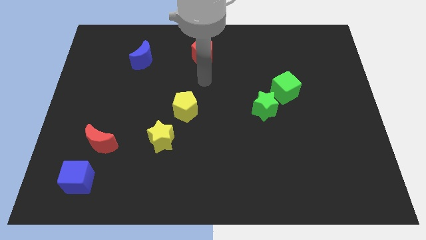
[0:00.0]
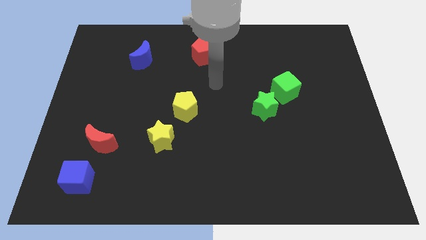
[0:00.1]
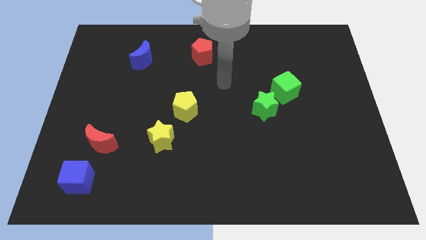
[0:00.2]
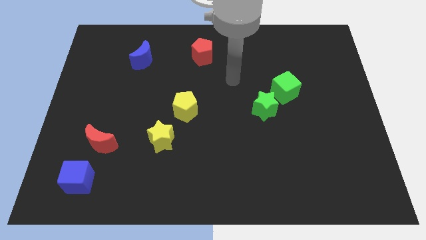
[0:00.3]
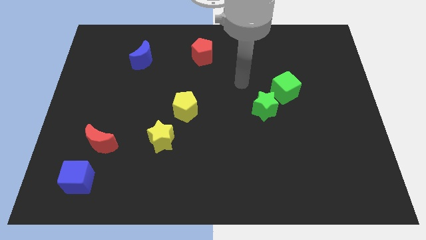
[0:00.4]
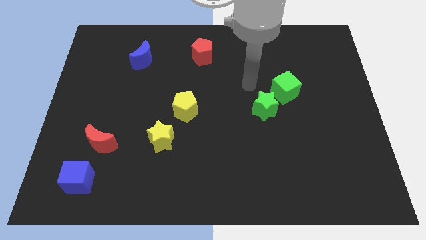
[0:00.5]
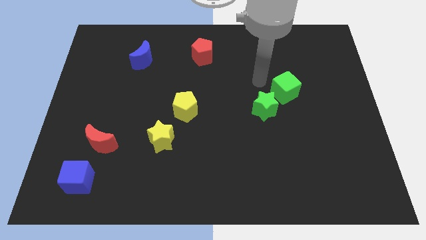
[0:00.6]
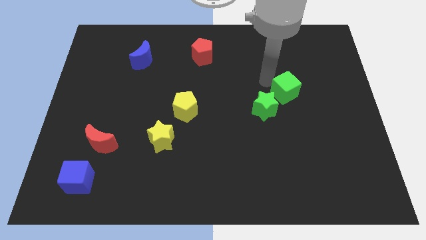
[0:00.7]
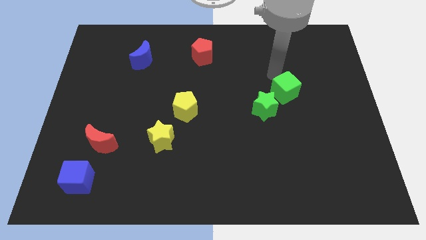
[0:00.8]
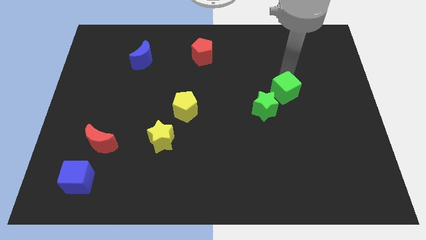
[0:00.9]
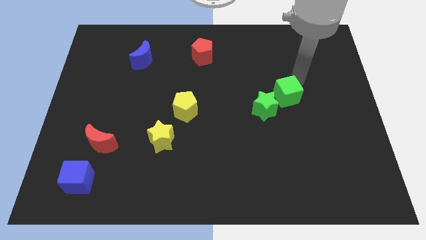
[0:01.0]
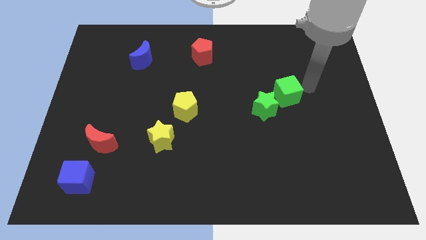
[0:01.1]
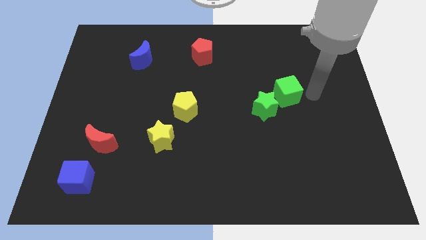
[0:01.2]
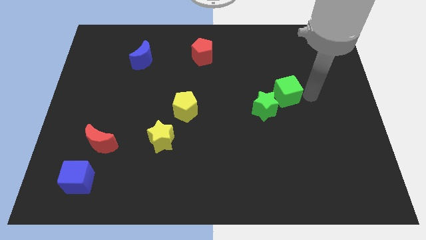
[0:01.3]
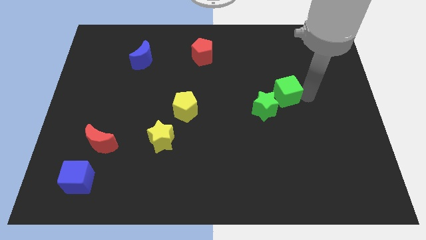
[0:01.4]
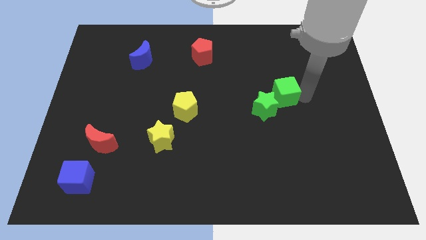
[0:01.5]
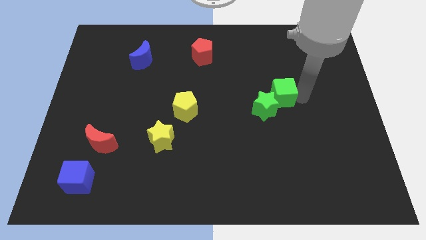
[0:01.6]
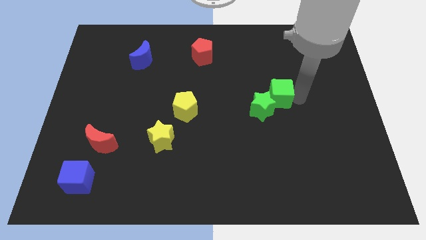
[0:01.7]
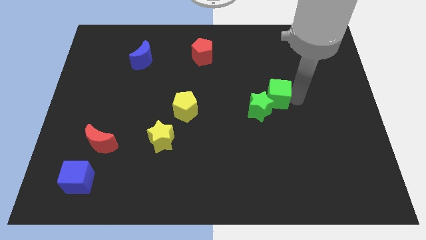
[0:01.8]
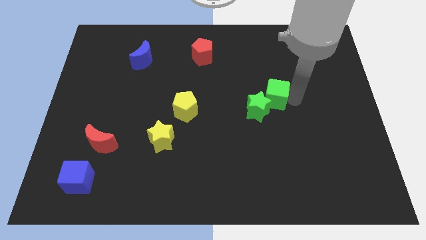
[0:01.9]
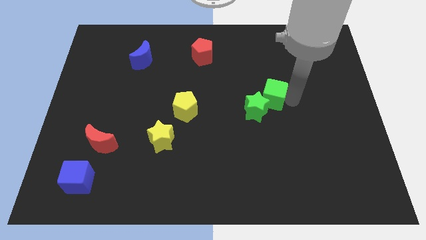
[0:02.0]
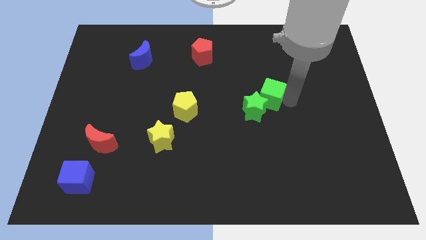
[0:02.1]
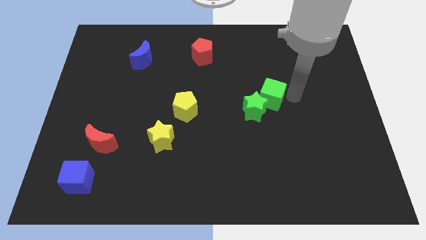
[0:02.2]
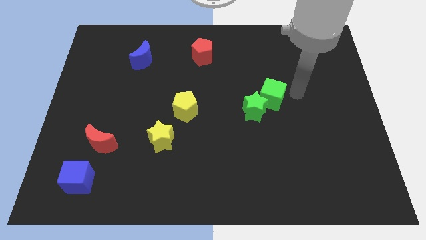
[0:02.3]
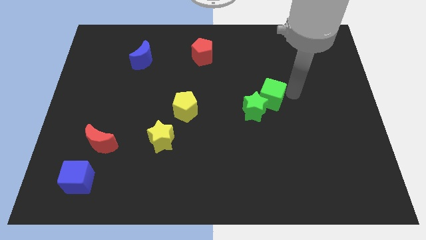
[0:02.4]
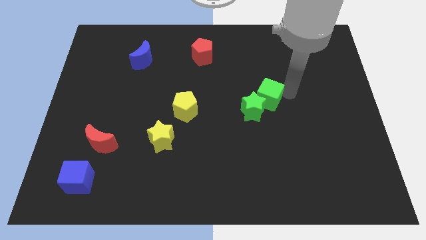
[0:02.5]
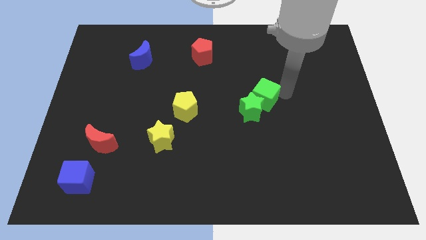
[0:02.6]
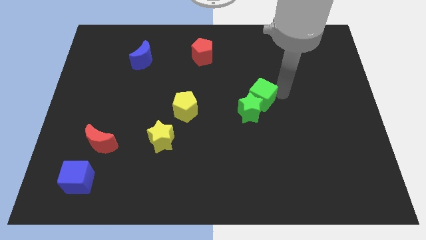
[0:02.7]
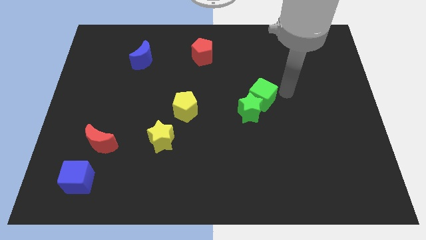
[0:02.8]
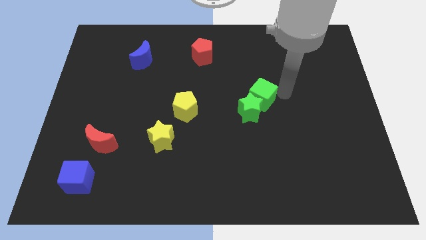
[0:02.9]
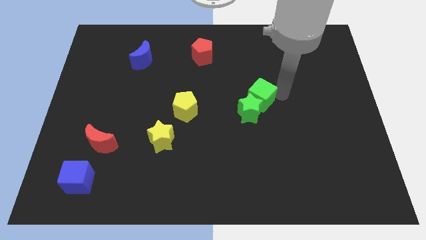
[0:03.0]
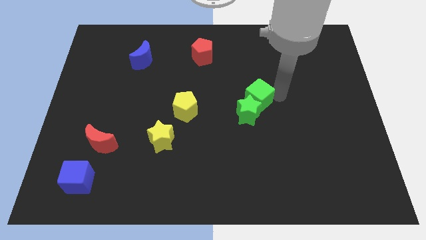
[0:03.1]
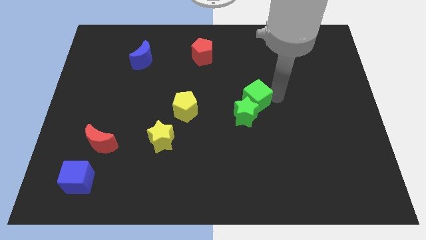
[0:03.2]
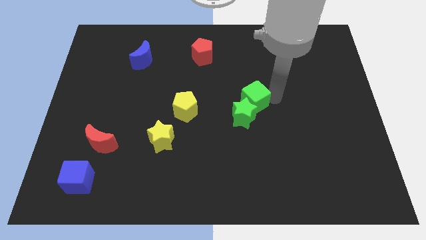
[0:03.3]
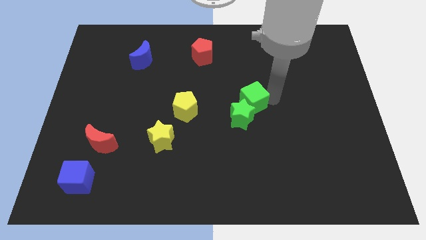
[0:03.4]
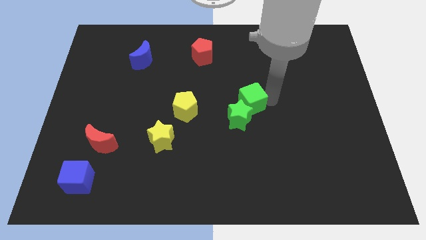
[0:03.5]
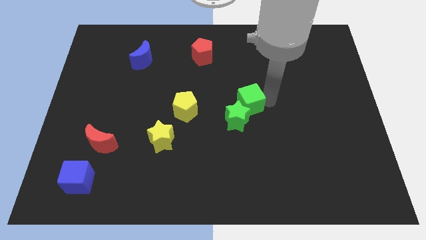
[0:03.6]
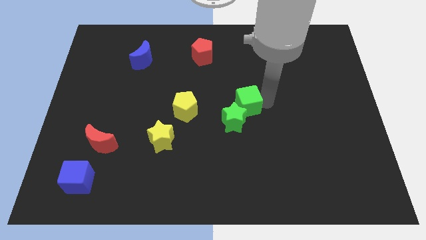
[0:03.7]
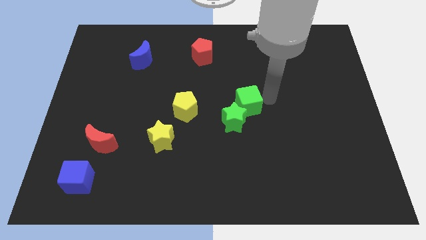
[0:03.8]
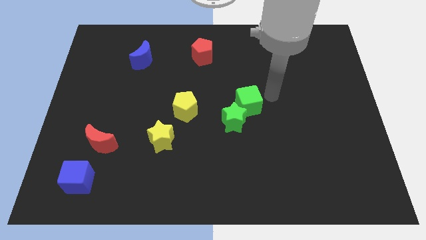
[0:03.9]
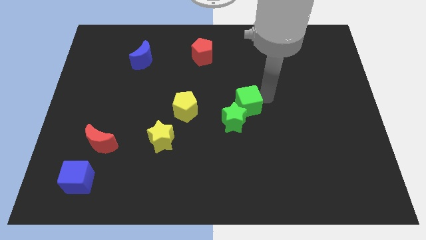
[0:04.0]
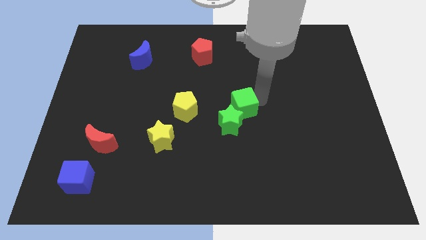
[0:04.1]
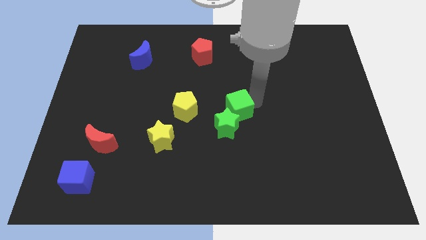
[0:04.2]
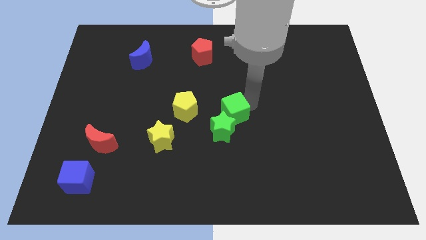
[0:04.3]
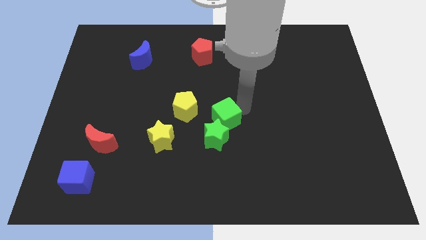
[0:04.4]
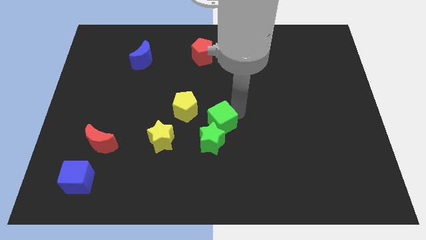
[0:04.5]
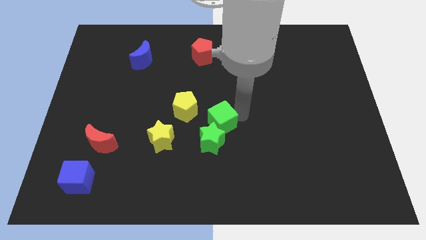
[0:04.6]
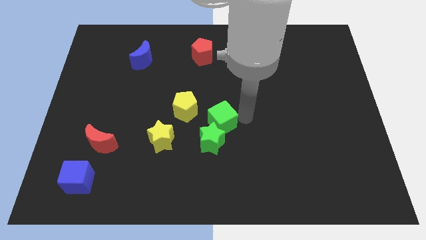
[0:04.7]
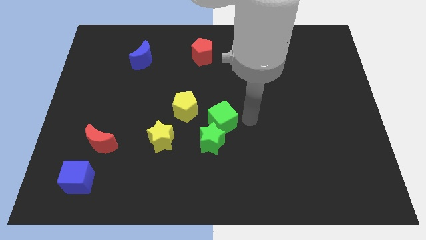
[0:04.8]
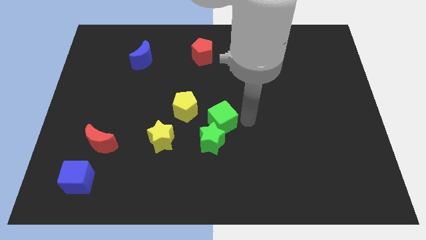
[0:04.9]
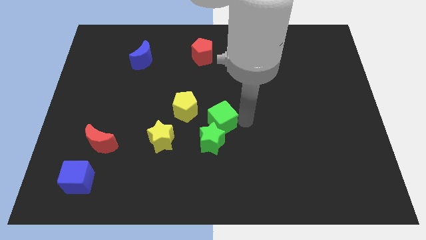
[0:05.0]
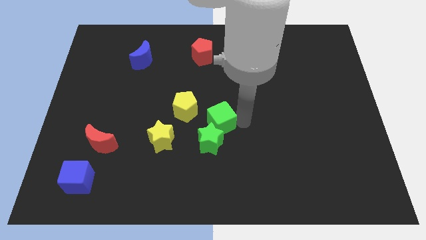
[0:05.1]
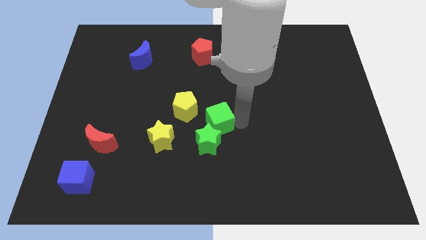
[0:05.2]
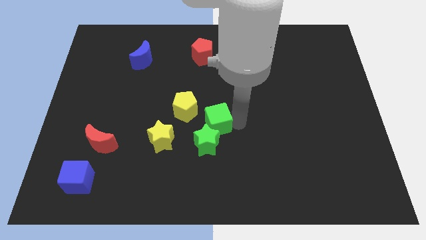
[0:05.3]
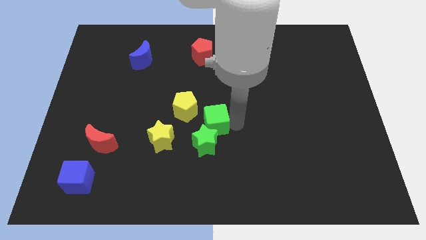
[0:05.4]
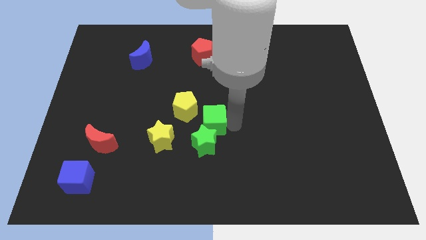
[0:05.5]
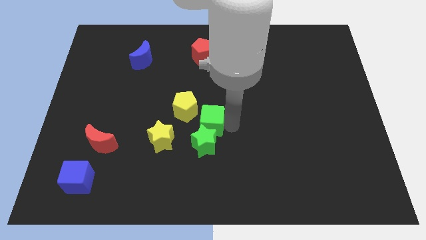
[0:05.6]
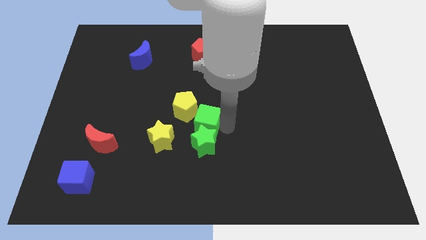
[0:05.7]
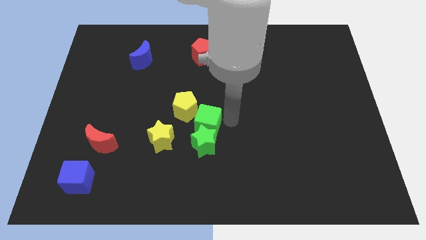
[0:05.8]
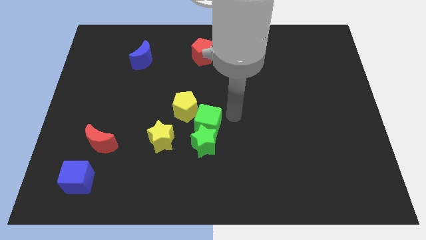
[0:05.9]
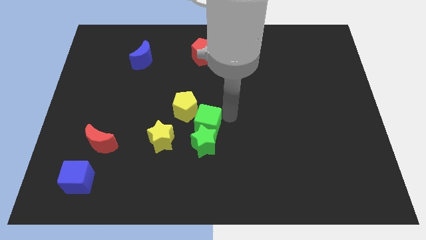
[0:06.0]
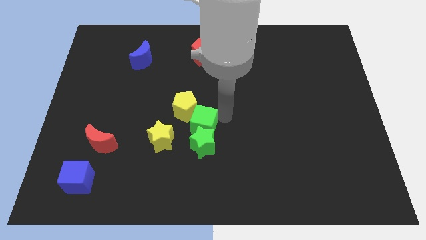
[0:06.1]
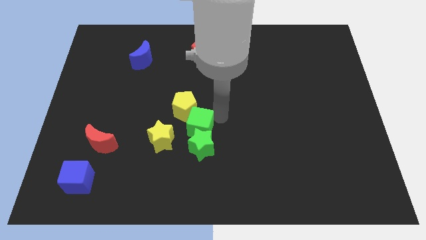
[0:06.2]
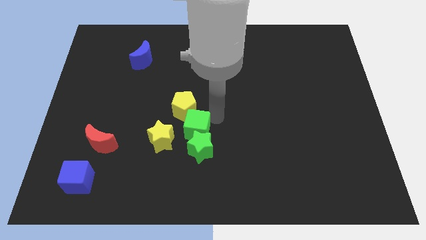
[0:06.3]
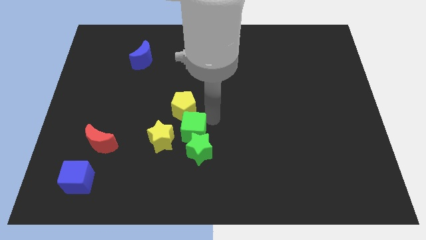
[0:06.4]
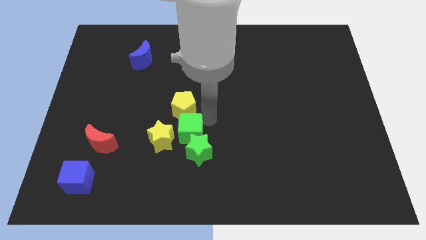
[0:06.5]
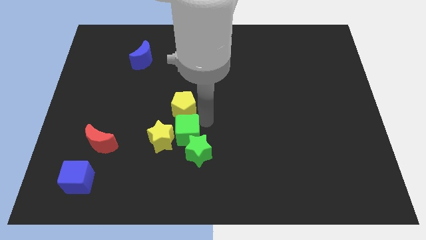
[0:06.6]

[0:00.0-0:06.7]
slide the green cube next to the yellow star
